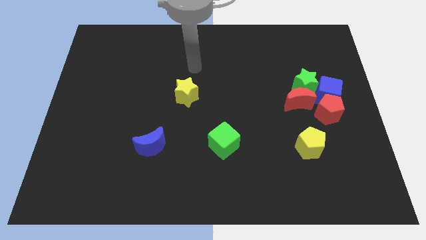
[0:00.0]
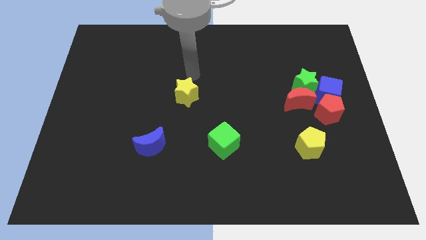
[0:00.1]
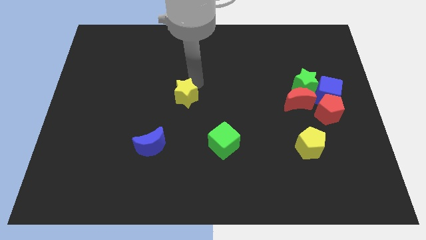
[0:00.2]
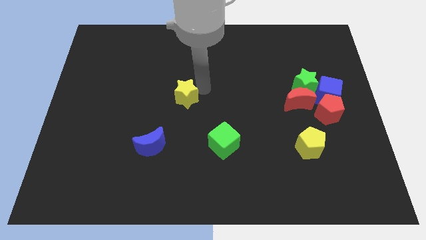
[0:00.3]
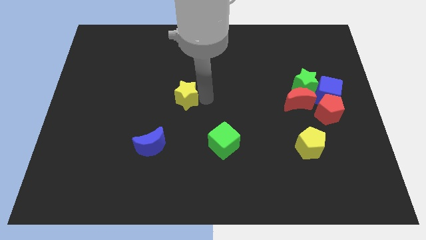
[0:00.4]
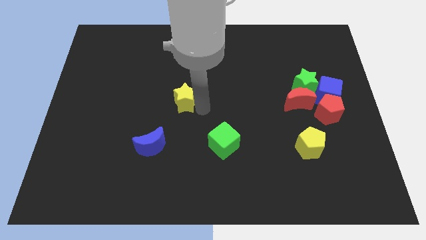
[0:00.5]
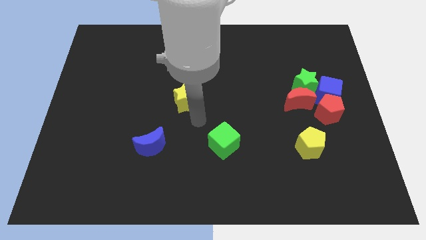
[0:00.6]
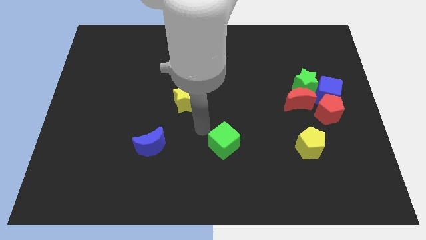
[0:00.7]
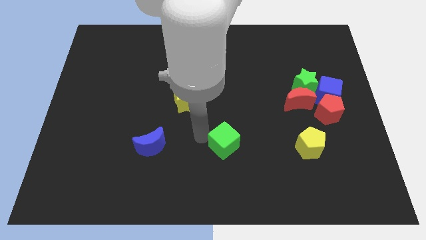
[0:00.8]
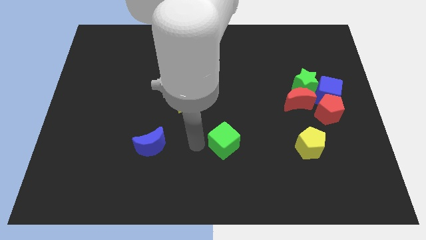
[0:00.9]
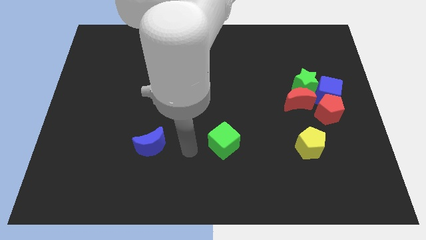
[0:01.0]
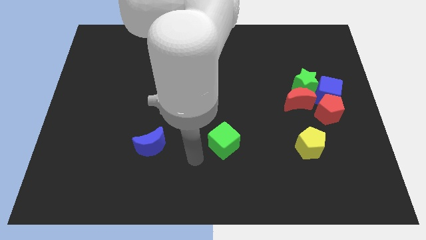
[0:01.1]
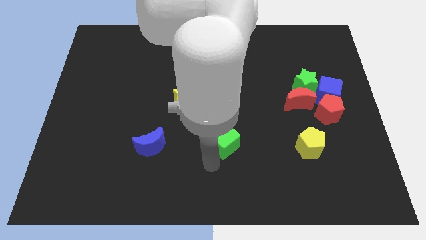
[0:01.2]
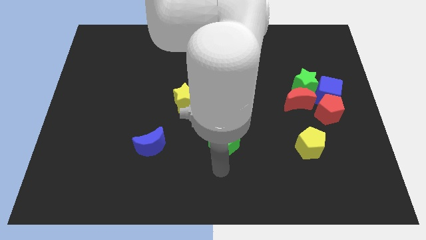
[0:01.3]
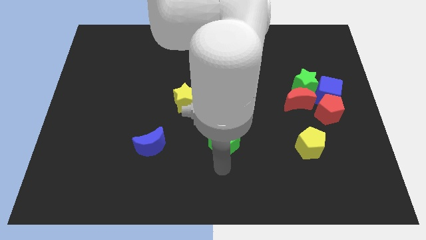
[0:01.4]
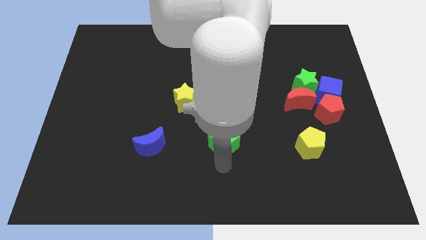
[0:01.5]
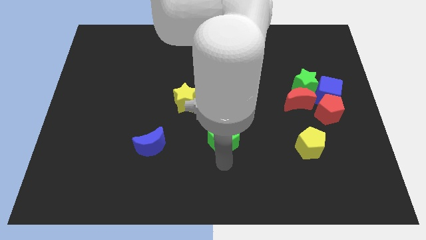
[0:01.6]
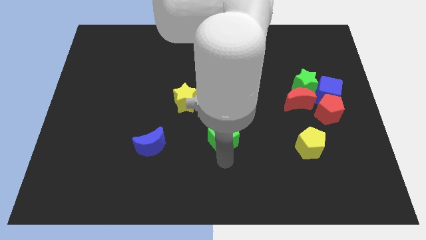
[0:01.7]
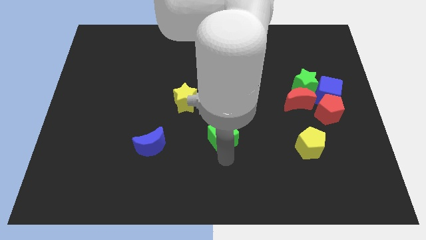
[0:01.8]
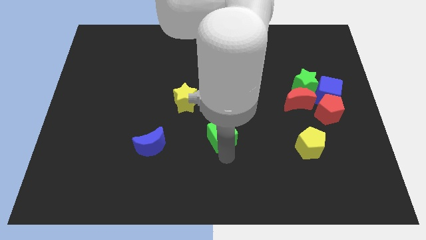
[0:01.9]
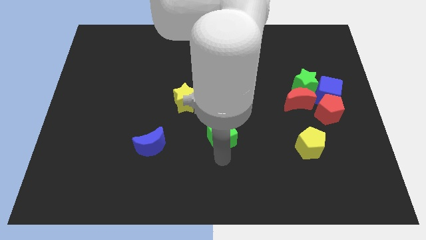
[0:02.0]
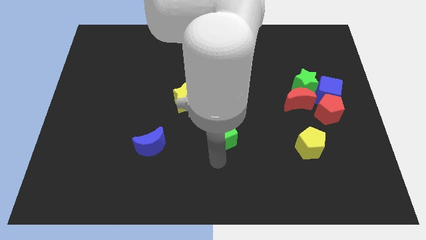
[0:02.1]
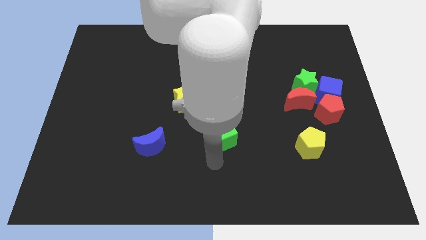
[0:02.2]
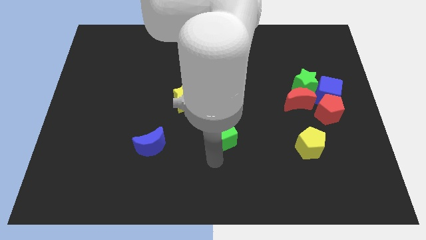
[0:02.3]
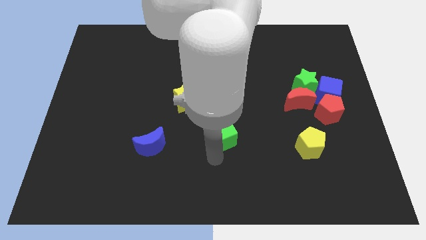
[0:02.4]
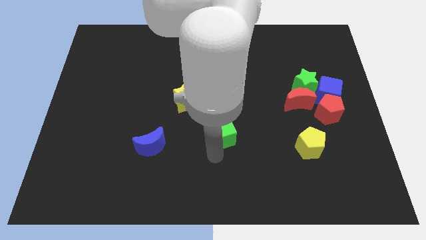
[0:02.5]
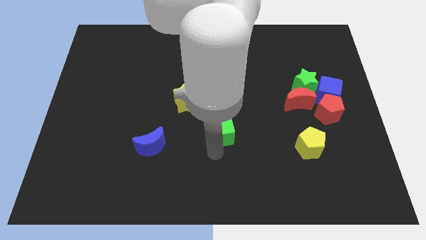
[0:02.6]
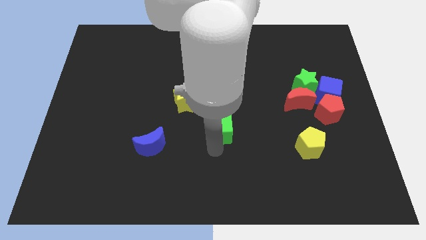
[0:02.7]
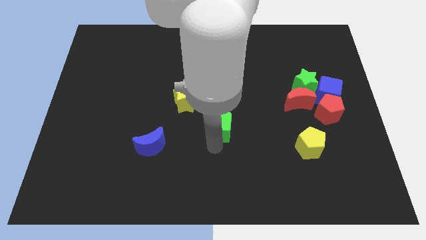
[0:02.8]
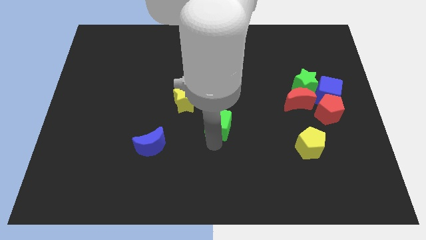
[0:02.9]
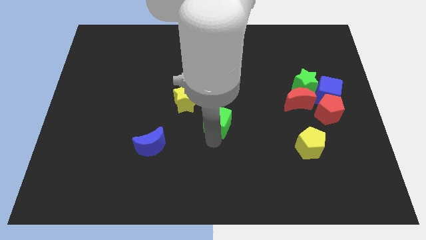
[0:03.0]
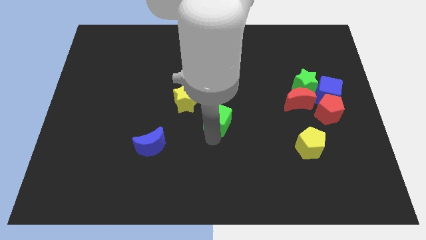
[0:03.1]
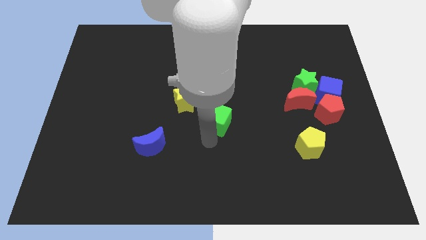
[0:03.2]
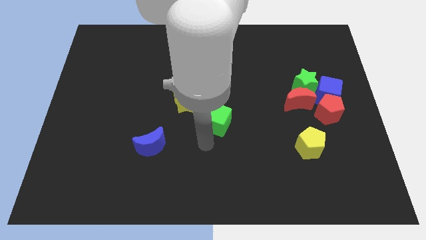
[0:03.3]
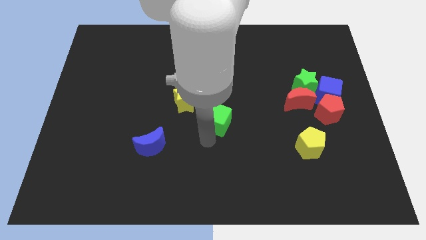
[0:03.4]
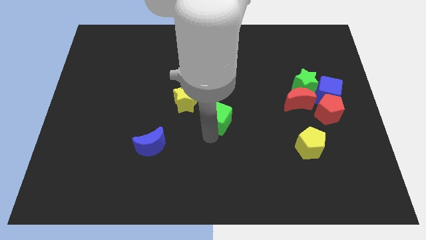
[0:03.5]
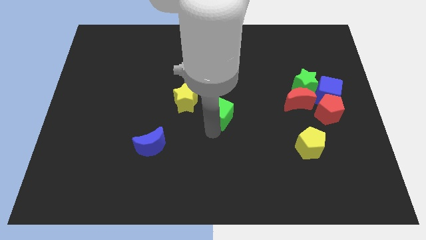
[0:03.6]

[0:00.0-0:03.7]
slightly move the green cube up

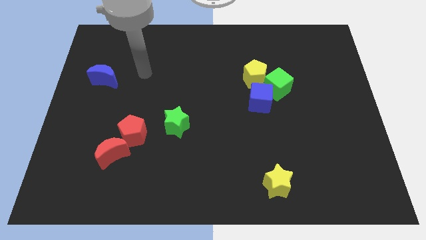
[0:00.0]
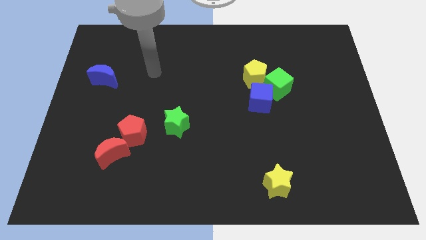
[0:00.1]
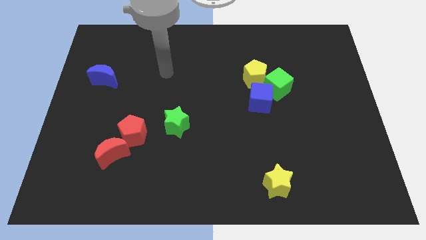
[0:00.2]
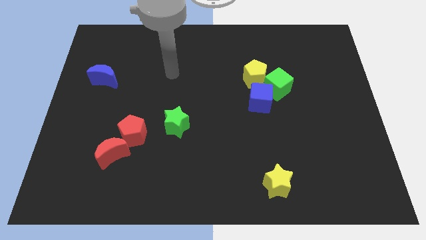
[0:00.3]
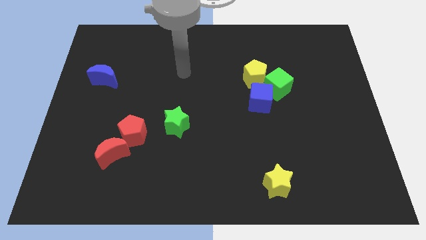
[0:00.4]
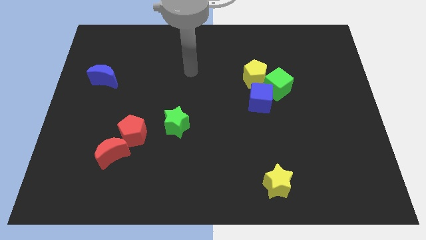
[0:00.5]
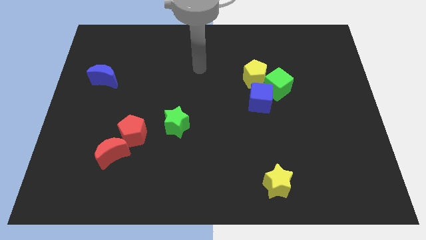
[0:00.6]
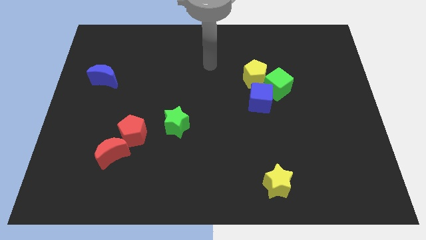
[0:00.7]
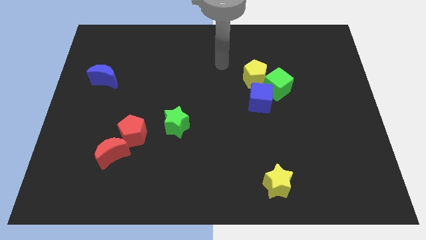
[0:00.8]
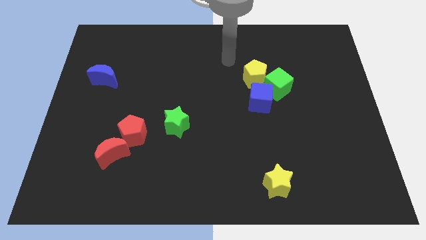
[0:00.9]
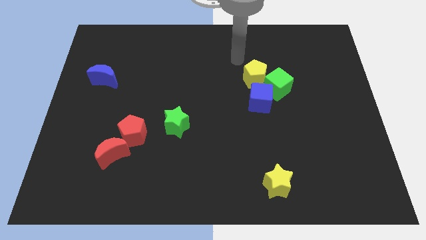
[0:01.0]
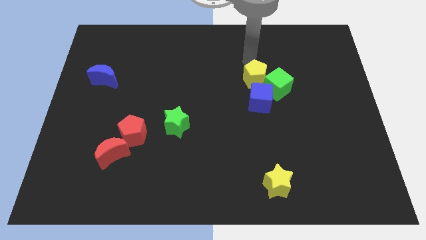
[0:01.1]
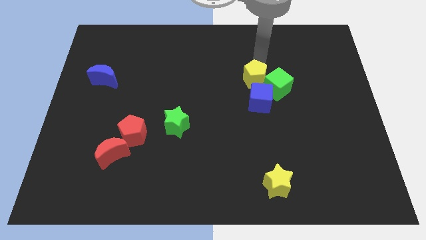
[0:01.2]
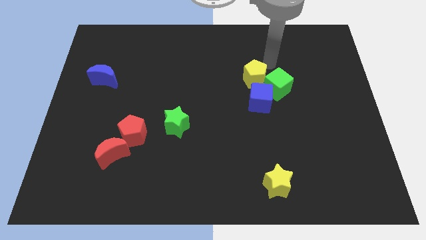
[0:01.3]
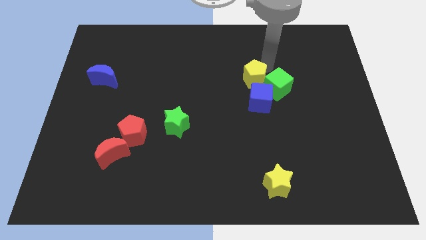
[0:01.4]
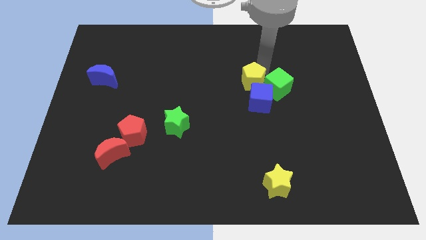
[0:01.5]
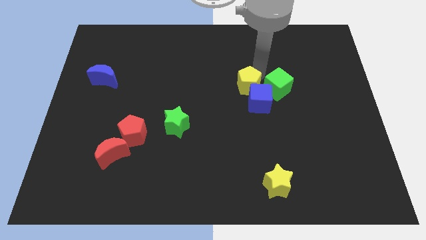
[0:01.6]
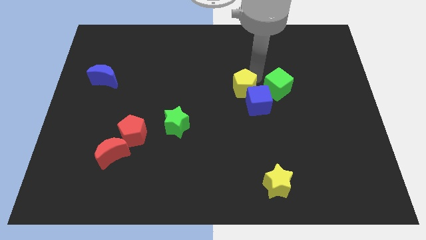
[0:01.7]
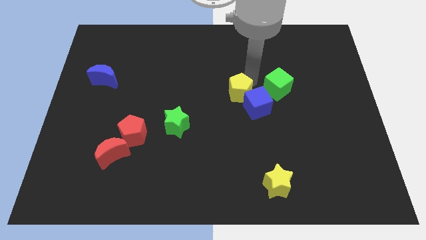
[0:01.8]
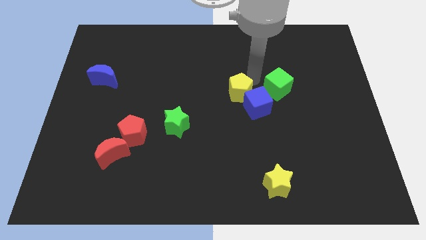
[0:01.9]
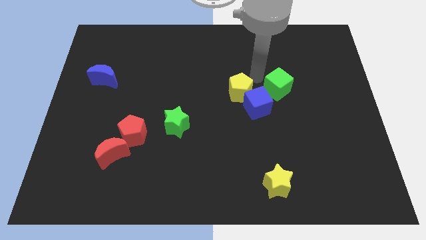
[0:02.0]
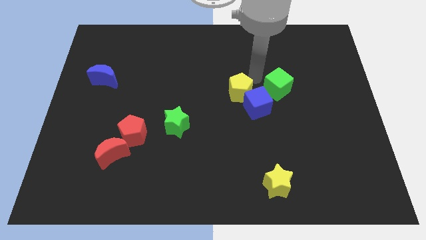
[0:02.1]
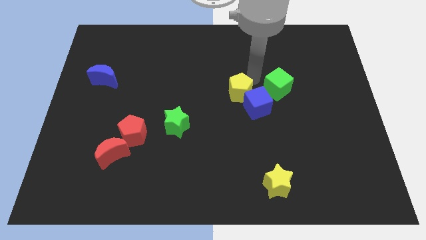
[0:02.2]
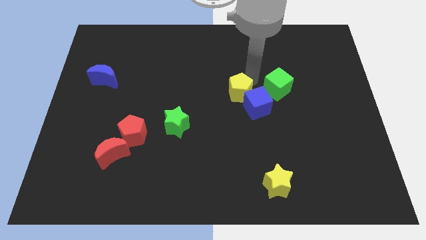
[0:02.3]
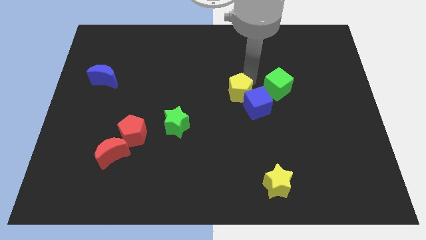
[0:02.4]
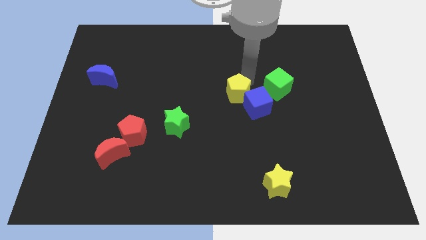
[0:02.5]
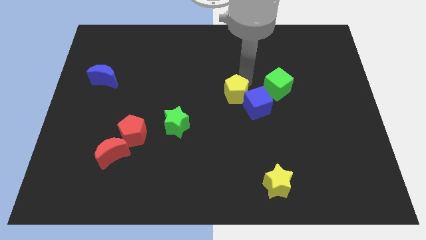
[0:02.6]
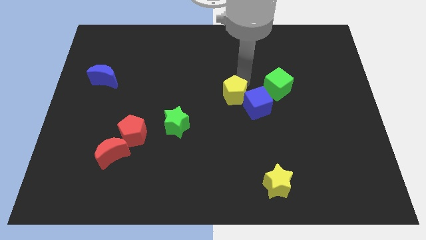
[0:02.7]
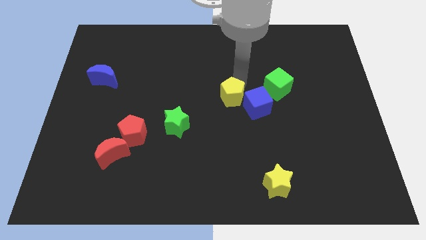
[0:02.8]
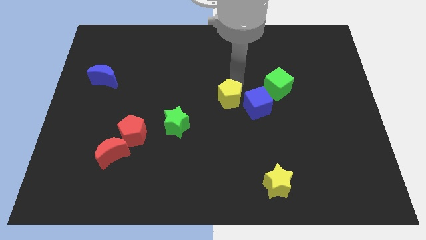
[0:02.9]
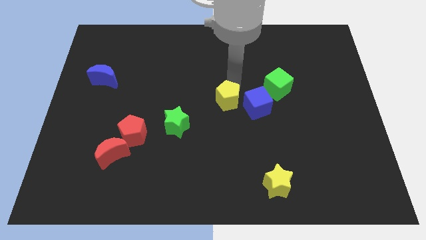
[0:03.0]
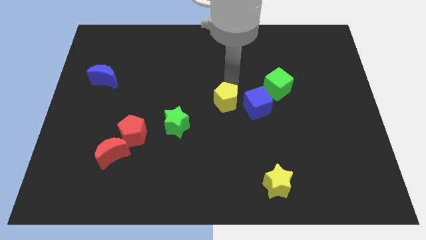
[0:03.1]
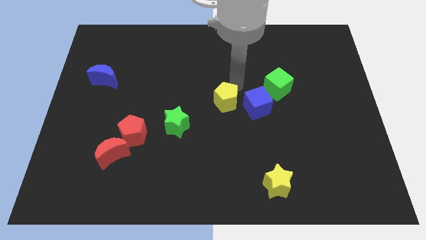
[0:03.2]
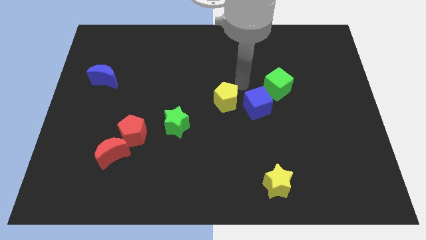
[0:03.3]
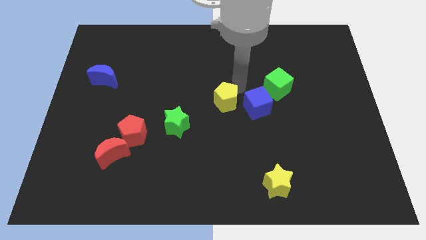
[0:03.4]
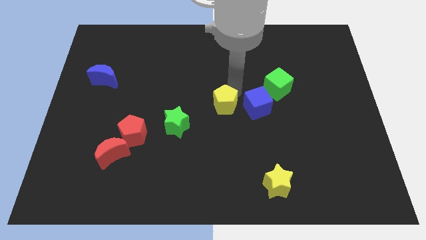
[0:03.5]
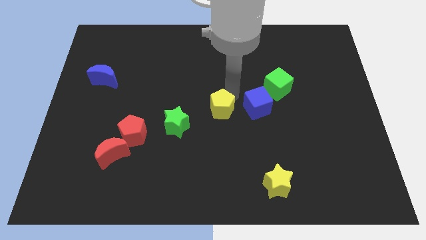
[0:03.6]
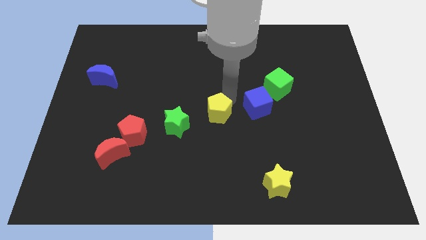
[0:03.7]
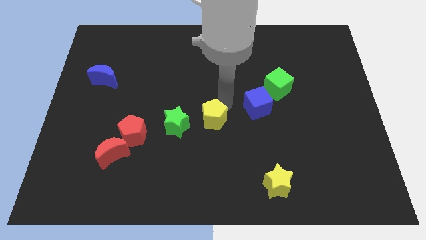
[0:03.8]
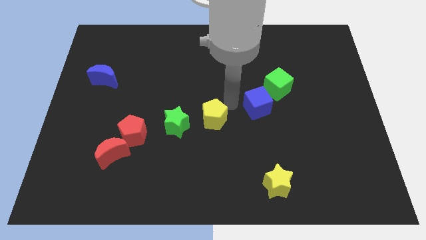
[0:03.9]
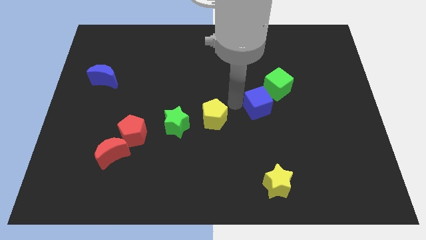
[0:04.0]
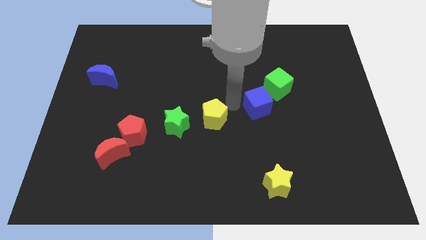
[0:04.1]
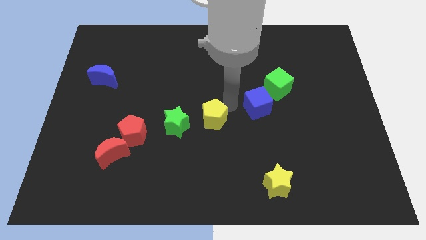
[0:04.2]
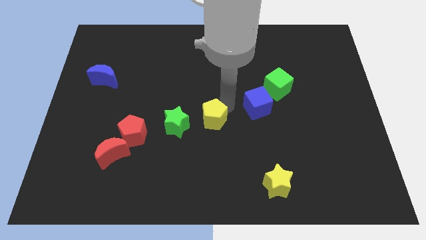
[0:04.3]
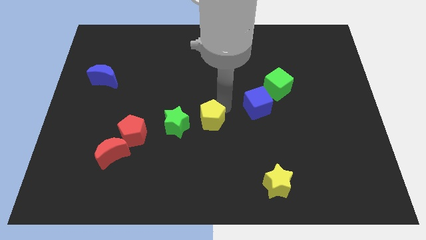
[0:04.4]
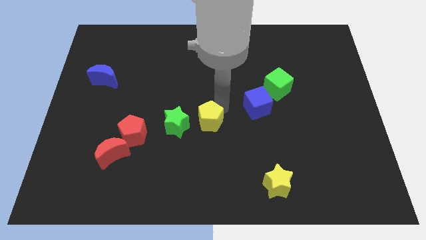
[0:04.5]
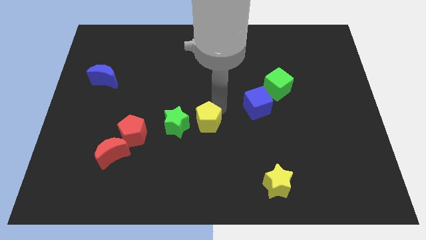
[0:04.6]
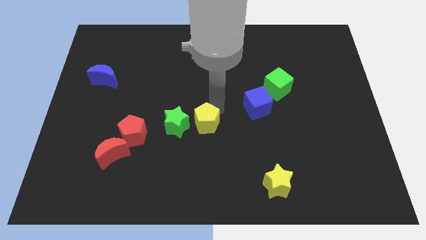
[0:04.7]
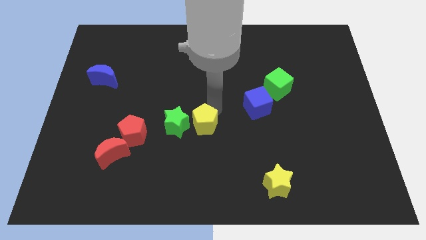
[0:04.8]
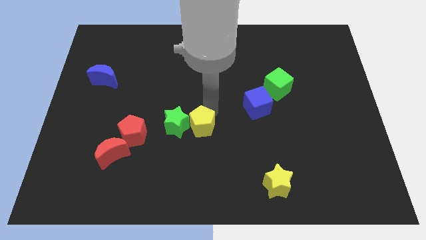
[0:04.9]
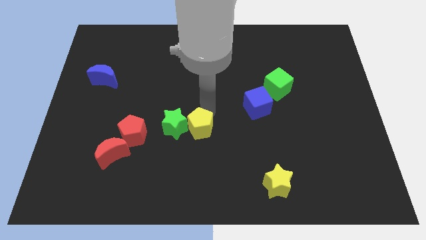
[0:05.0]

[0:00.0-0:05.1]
slide the yellow pentagon down and to the left
